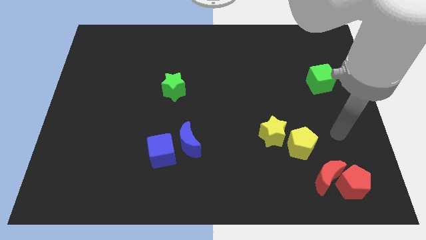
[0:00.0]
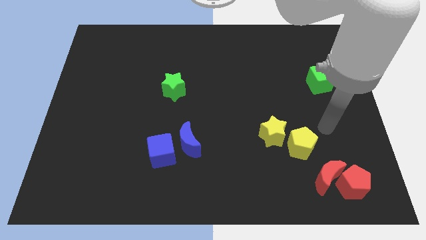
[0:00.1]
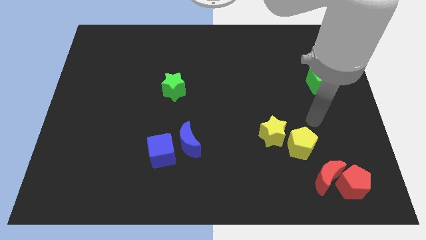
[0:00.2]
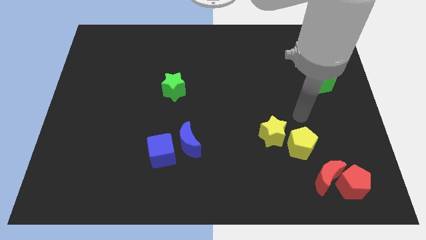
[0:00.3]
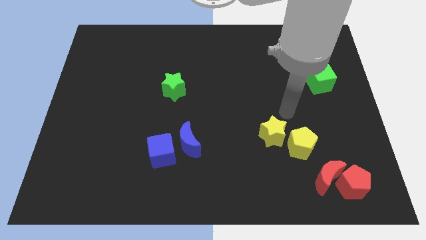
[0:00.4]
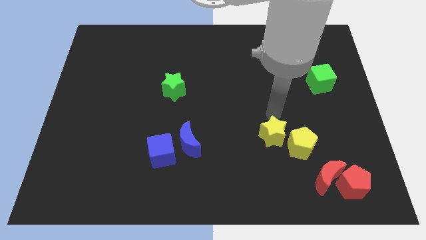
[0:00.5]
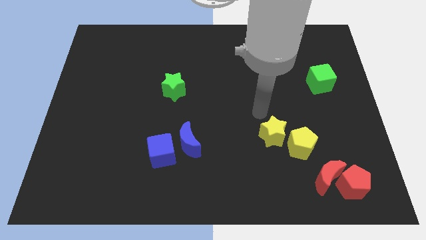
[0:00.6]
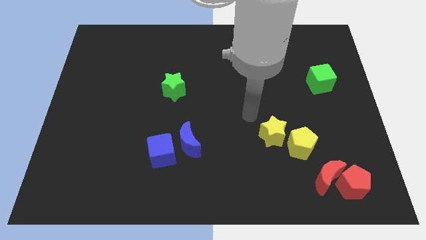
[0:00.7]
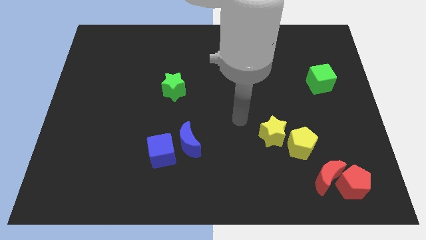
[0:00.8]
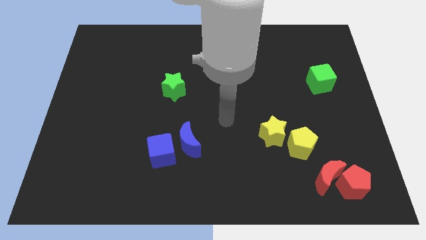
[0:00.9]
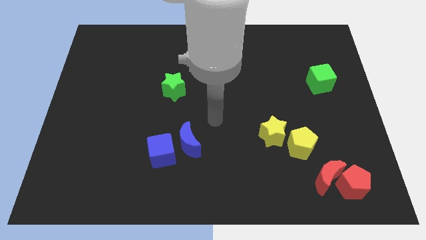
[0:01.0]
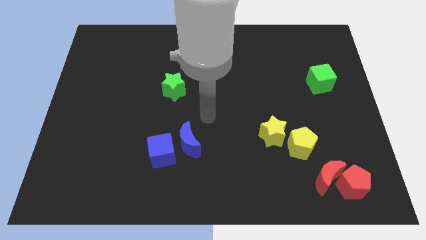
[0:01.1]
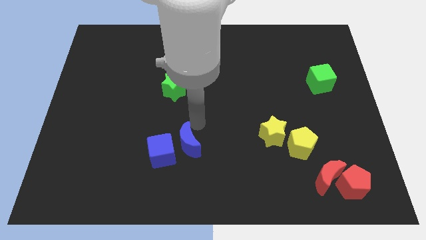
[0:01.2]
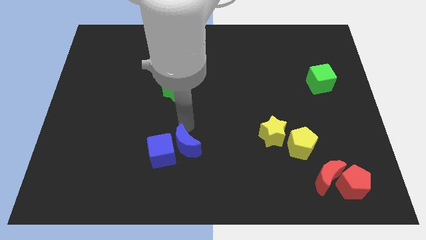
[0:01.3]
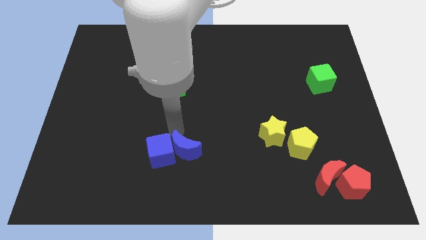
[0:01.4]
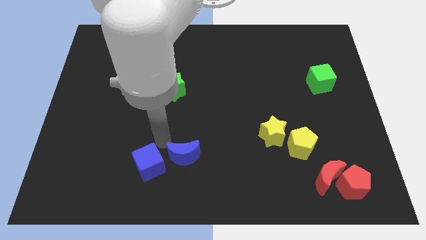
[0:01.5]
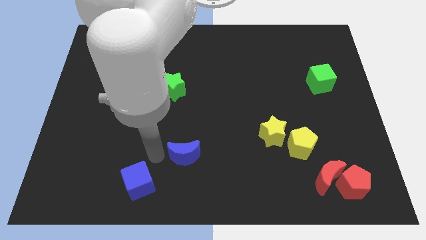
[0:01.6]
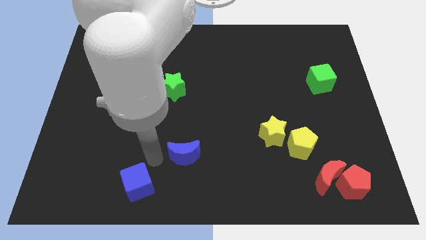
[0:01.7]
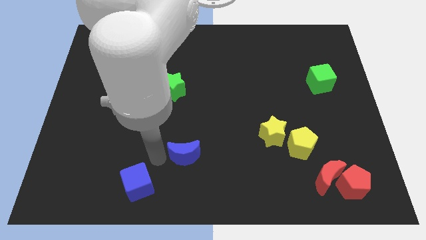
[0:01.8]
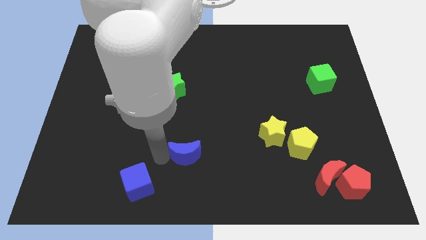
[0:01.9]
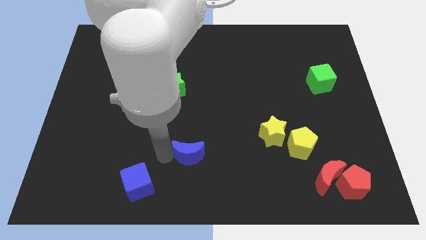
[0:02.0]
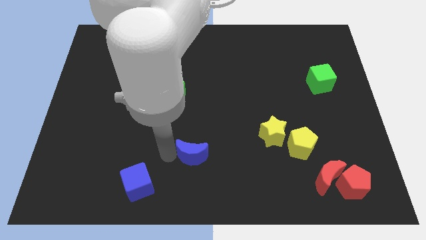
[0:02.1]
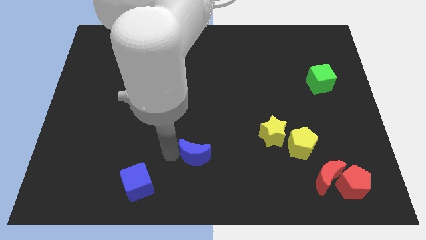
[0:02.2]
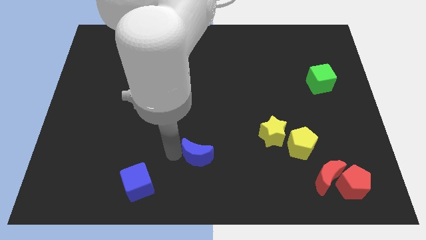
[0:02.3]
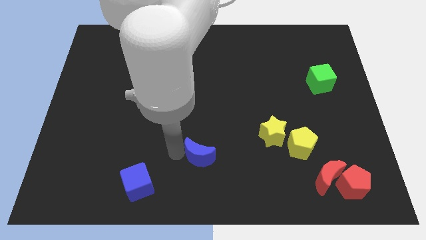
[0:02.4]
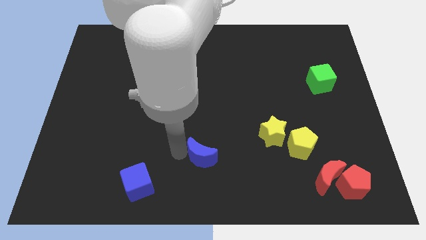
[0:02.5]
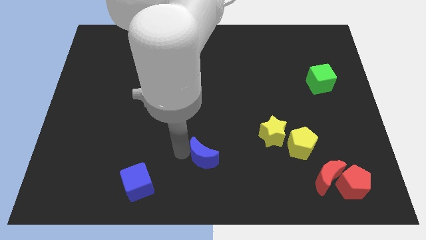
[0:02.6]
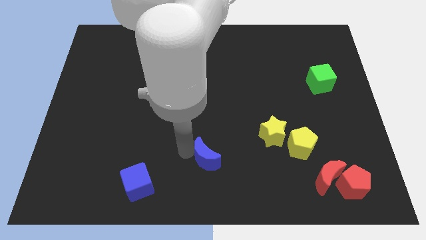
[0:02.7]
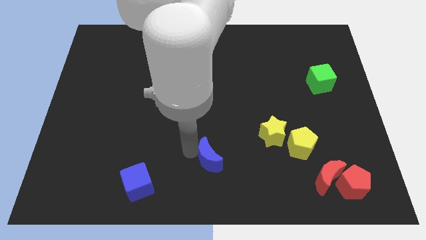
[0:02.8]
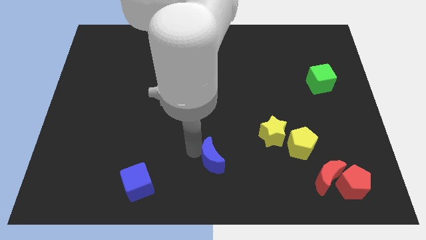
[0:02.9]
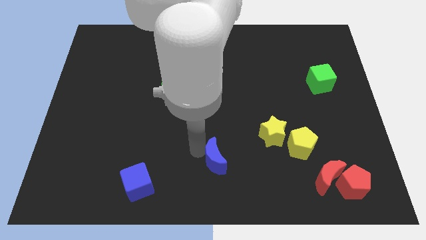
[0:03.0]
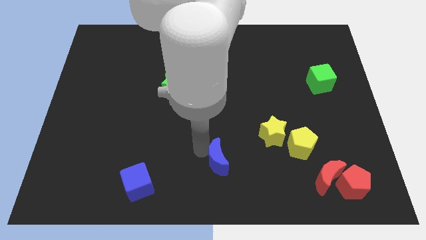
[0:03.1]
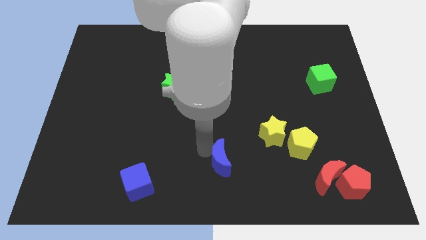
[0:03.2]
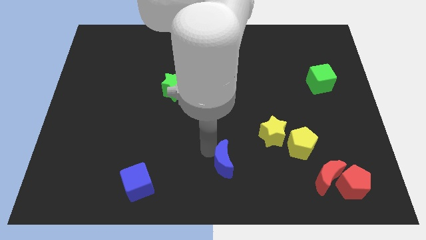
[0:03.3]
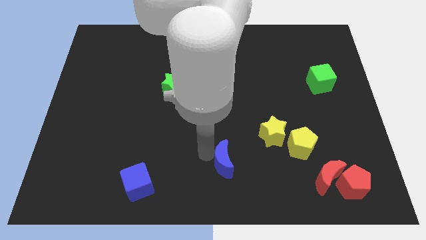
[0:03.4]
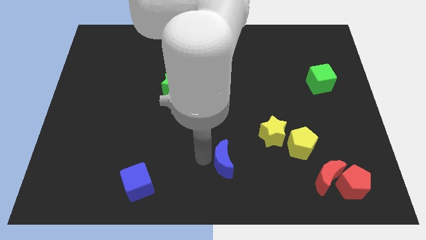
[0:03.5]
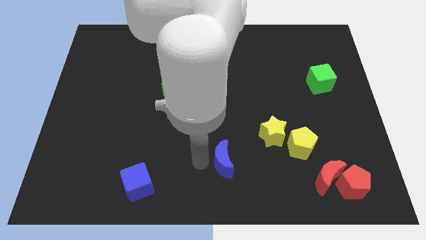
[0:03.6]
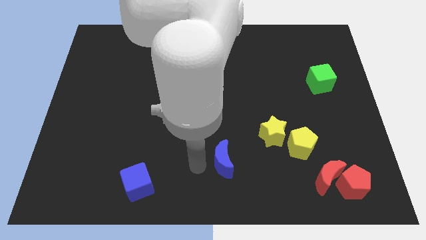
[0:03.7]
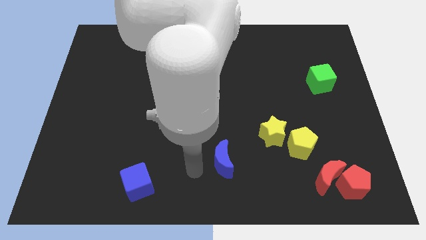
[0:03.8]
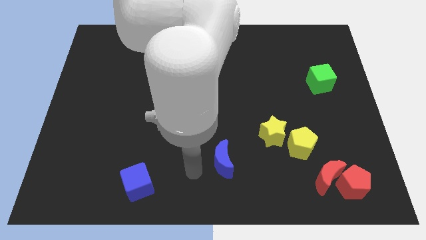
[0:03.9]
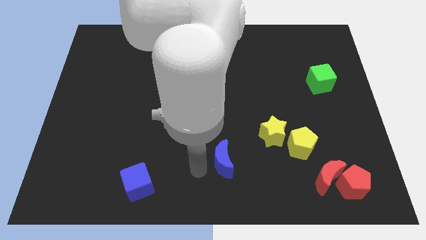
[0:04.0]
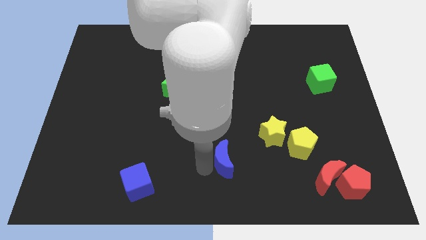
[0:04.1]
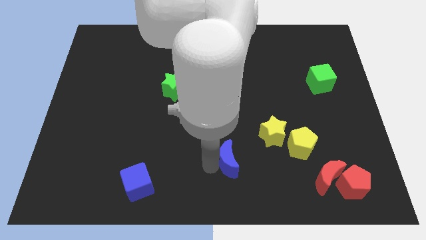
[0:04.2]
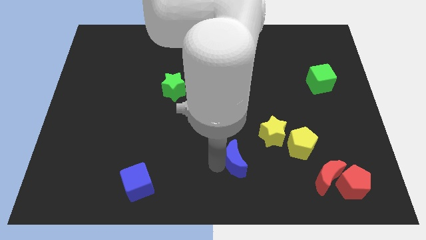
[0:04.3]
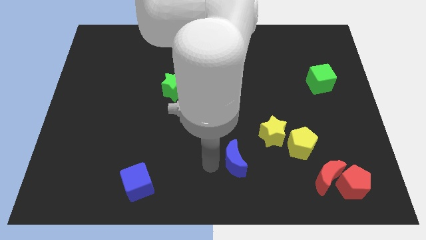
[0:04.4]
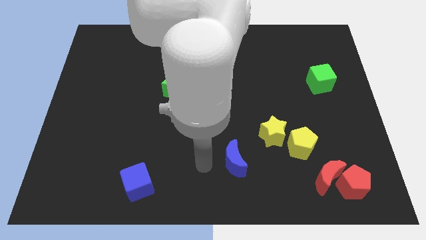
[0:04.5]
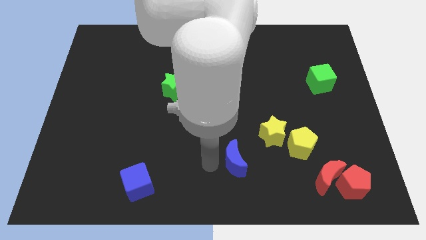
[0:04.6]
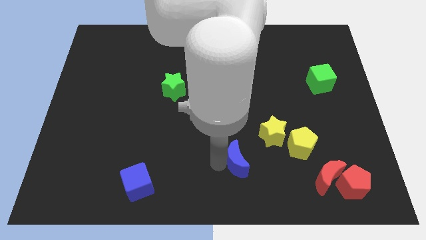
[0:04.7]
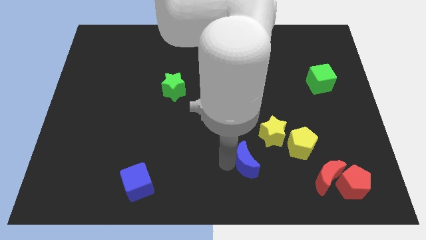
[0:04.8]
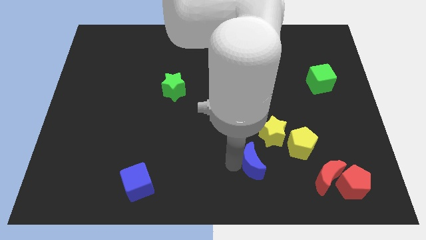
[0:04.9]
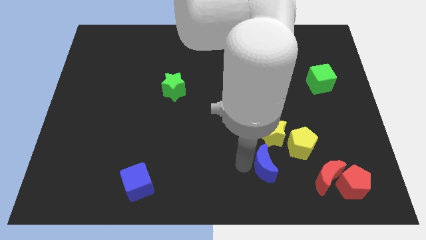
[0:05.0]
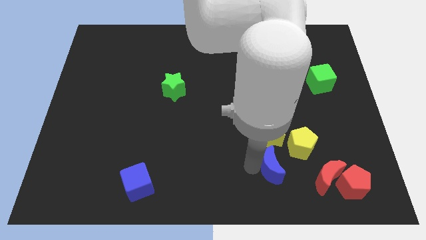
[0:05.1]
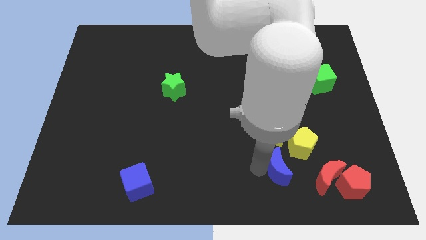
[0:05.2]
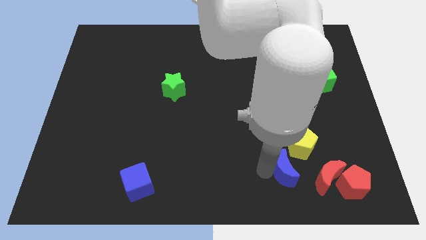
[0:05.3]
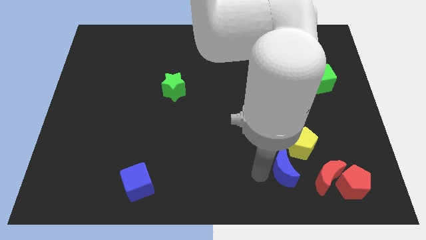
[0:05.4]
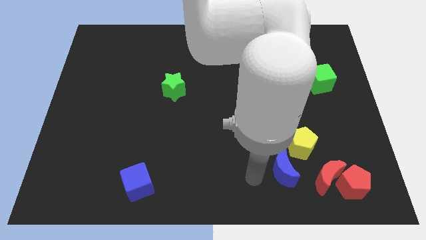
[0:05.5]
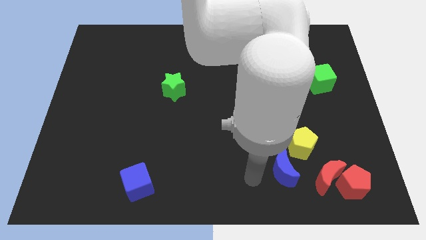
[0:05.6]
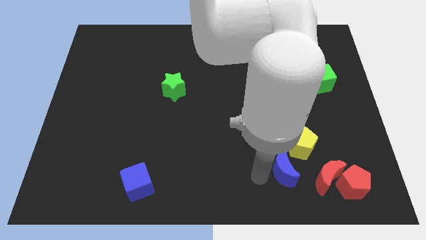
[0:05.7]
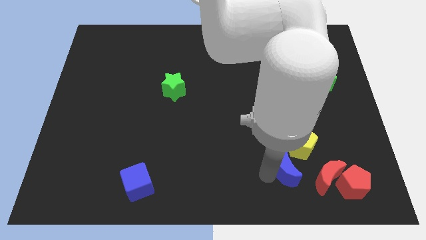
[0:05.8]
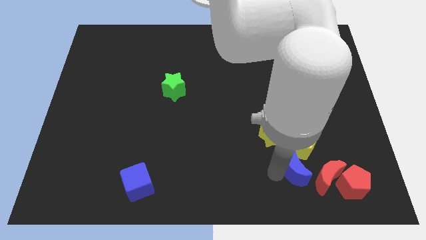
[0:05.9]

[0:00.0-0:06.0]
push the blue moon to the right

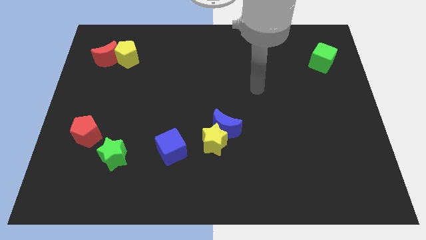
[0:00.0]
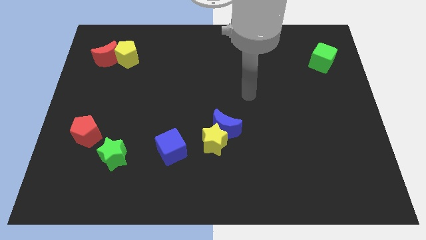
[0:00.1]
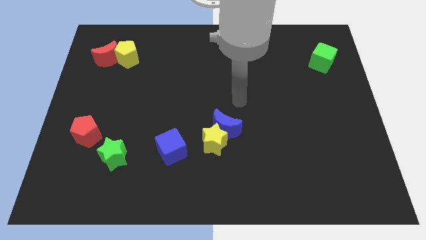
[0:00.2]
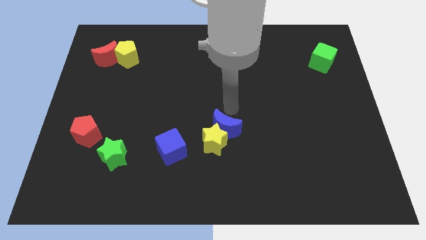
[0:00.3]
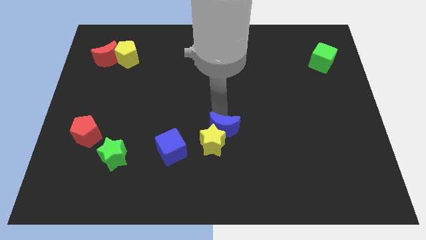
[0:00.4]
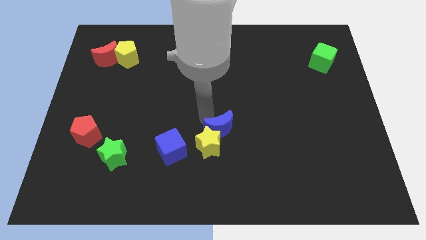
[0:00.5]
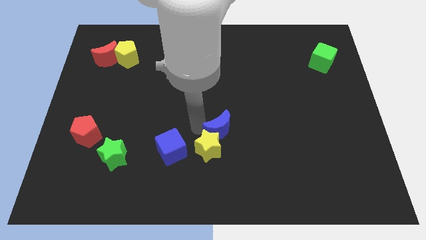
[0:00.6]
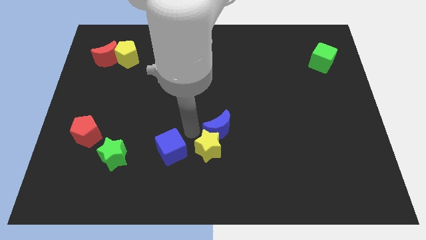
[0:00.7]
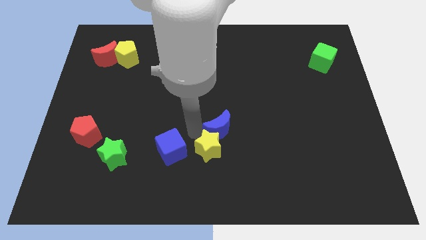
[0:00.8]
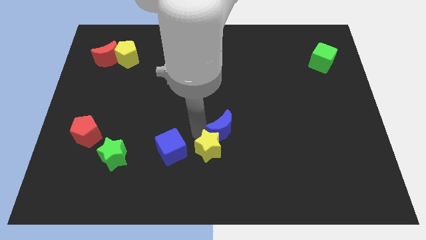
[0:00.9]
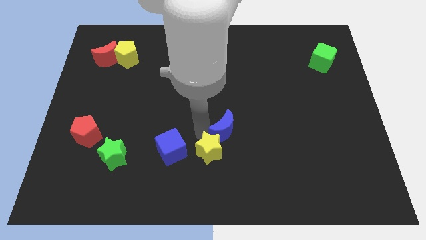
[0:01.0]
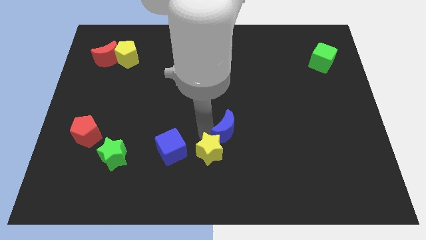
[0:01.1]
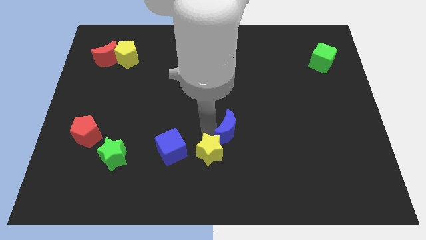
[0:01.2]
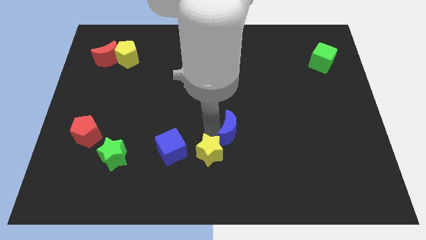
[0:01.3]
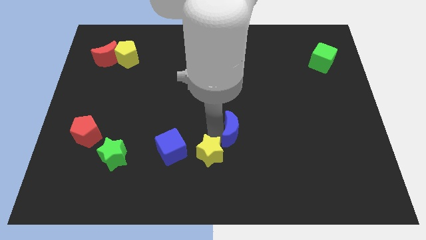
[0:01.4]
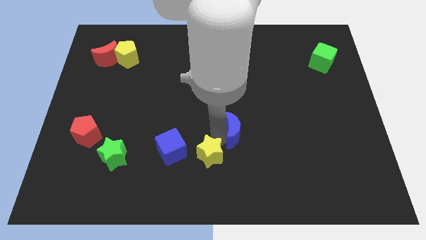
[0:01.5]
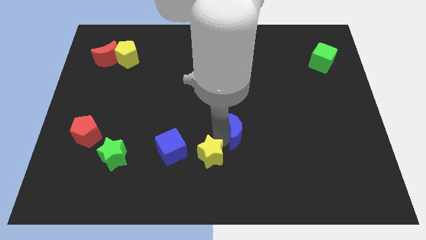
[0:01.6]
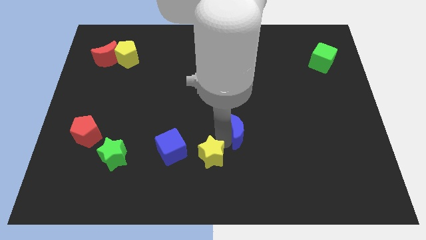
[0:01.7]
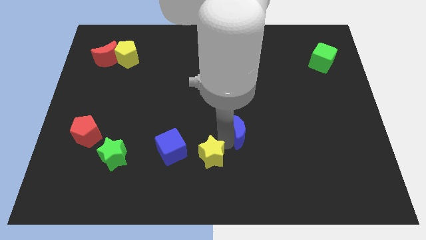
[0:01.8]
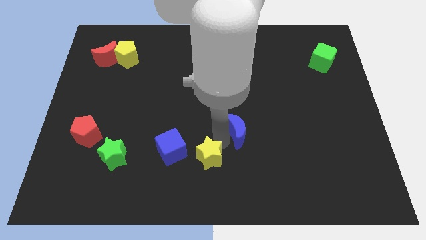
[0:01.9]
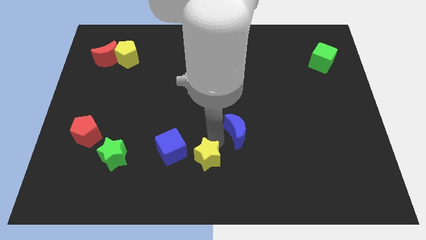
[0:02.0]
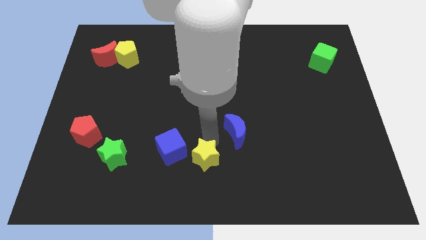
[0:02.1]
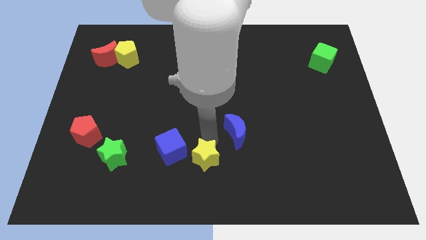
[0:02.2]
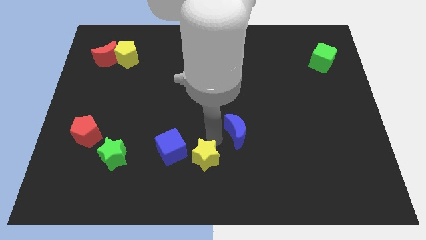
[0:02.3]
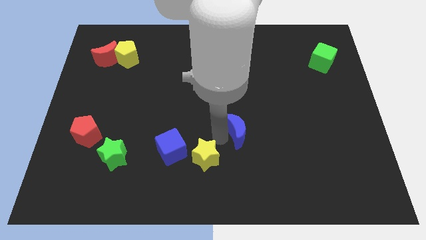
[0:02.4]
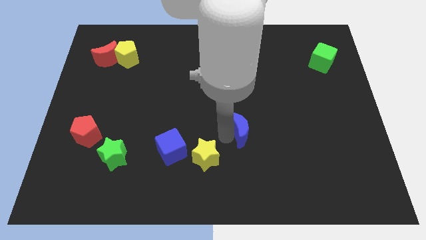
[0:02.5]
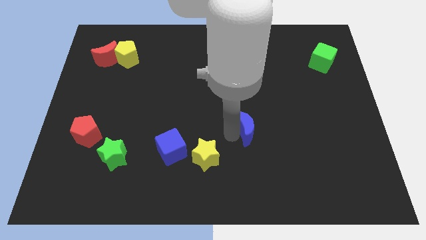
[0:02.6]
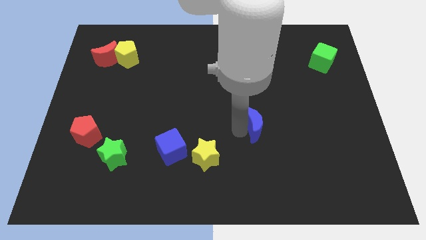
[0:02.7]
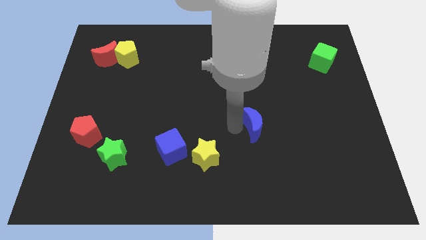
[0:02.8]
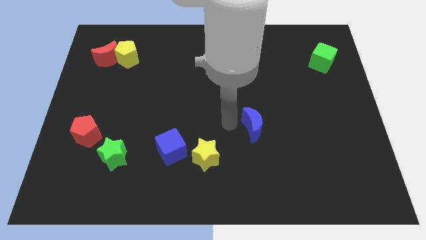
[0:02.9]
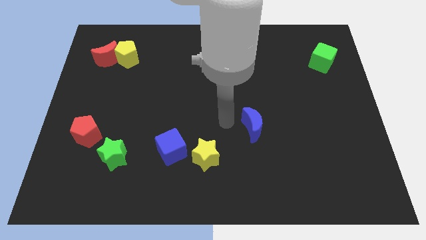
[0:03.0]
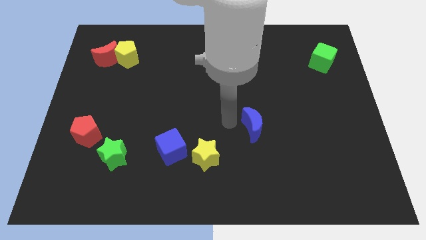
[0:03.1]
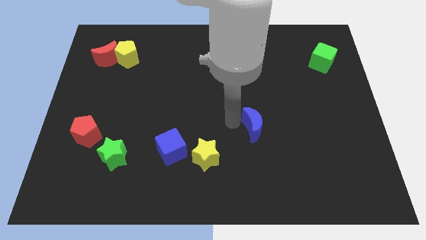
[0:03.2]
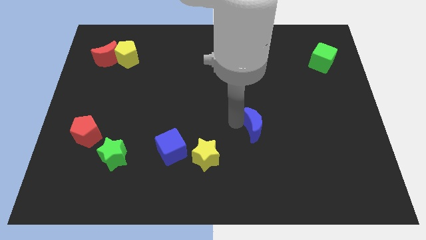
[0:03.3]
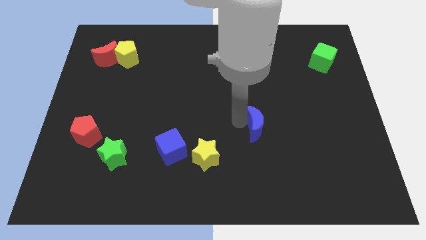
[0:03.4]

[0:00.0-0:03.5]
slightly slide the blue moon to the right
